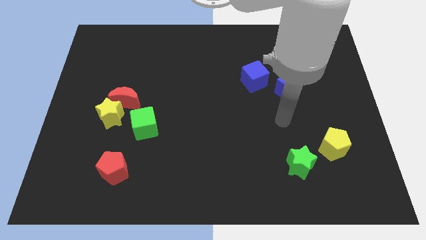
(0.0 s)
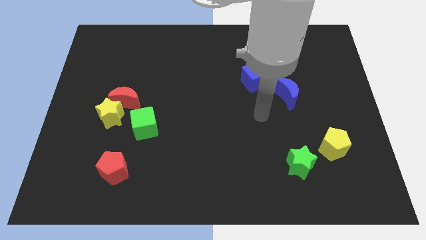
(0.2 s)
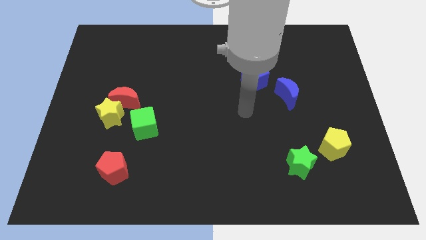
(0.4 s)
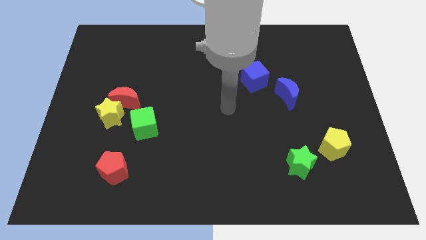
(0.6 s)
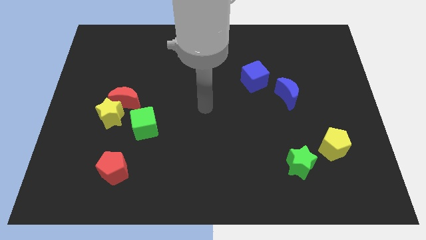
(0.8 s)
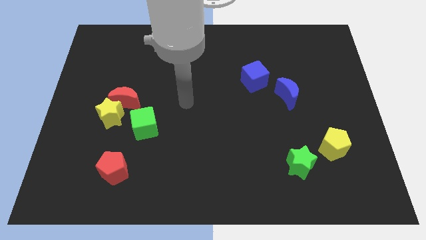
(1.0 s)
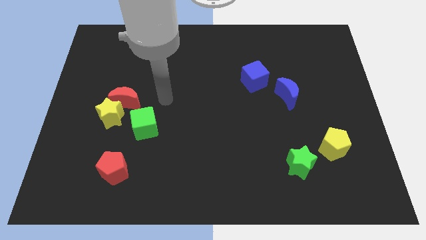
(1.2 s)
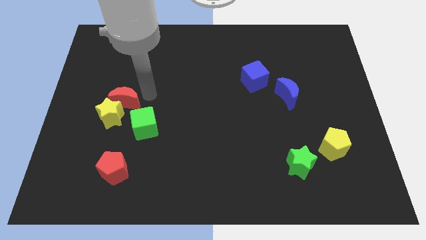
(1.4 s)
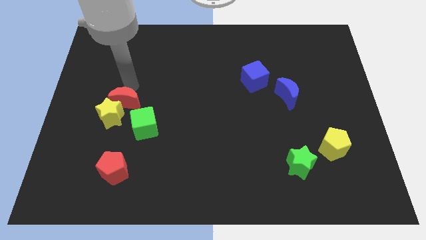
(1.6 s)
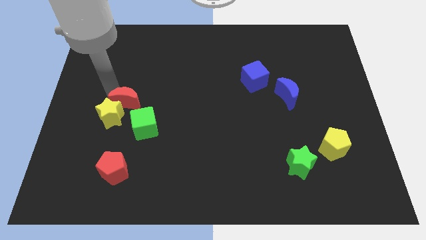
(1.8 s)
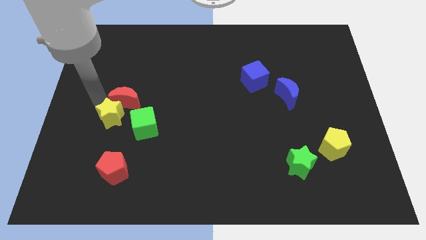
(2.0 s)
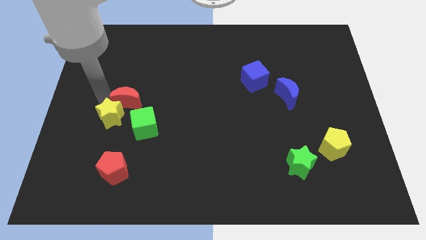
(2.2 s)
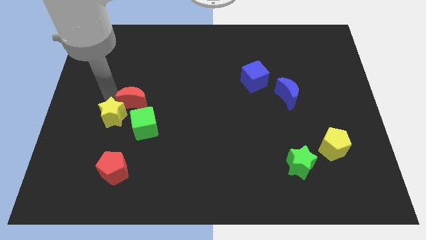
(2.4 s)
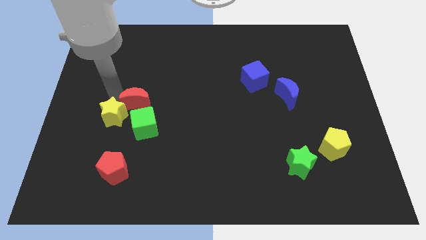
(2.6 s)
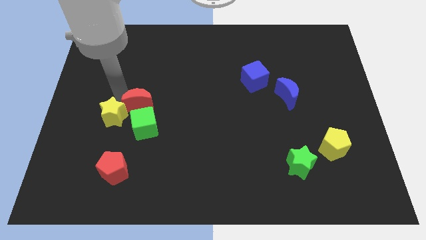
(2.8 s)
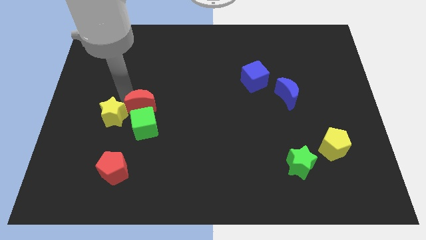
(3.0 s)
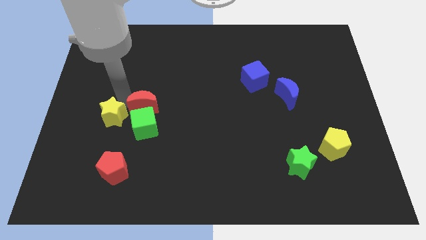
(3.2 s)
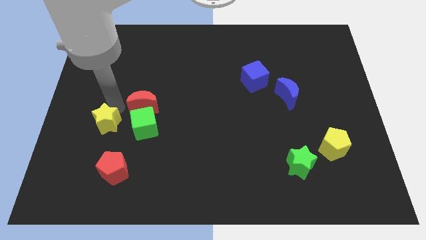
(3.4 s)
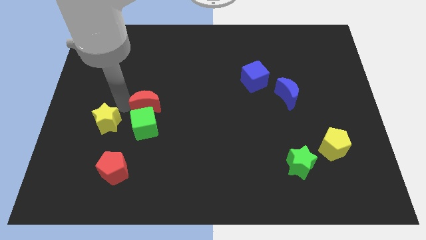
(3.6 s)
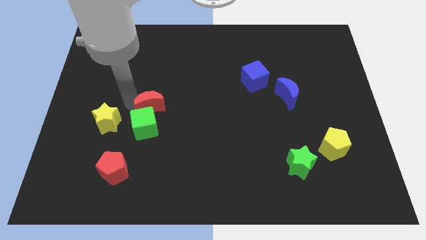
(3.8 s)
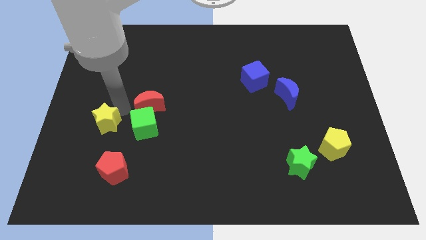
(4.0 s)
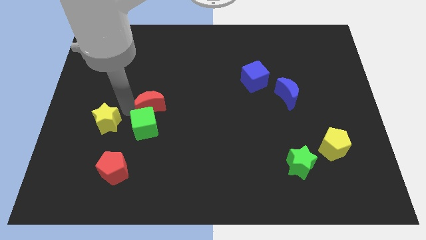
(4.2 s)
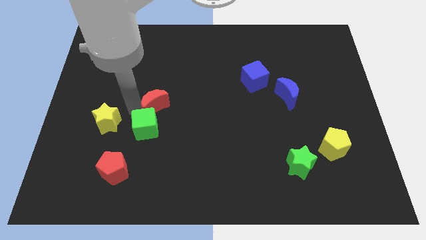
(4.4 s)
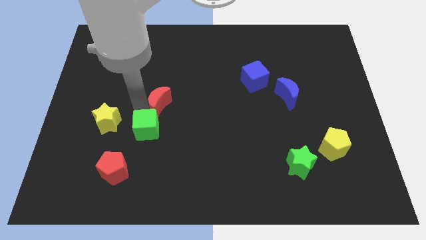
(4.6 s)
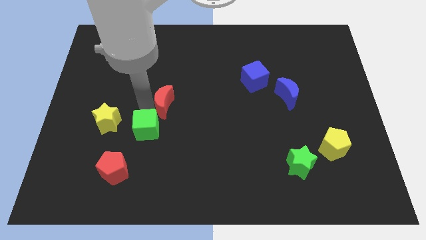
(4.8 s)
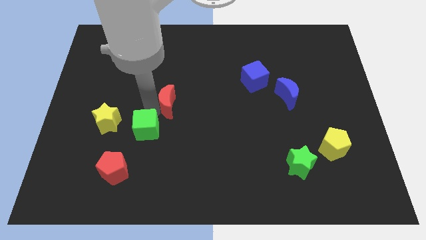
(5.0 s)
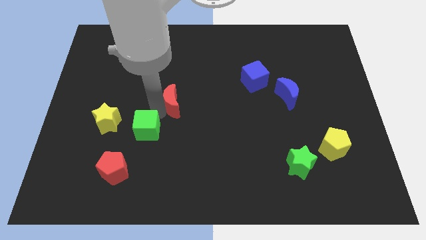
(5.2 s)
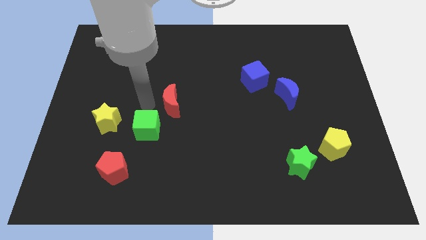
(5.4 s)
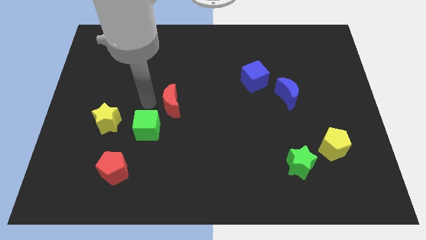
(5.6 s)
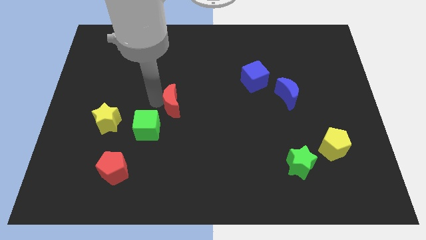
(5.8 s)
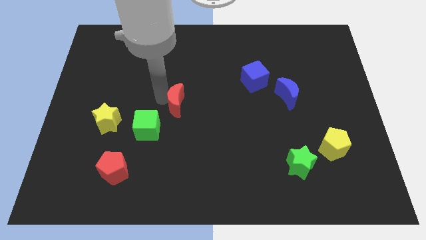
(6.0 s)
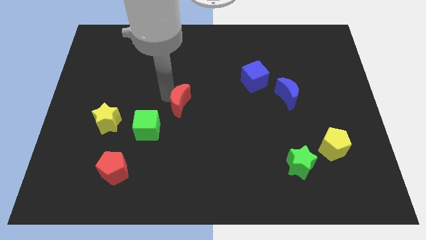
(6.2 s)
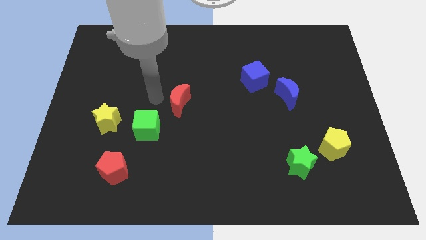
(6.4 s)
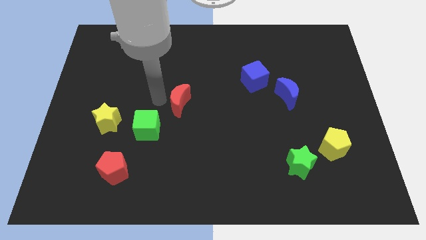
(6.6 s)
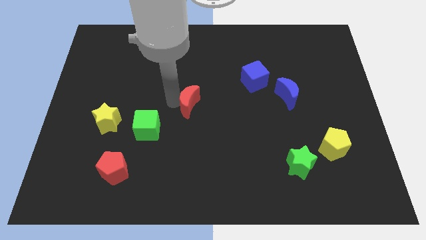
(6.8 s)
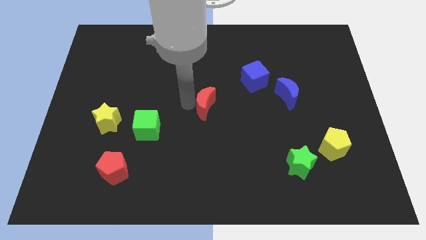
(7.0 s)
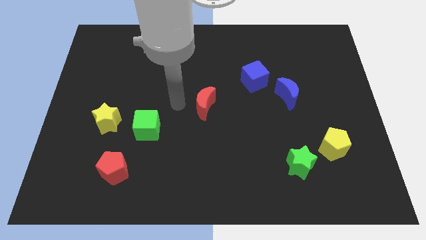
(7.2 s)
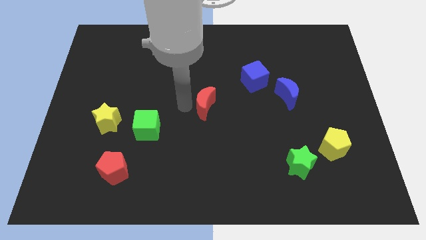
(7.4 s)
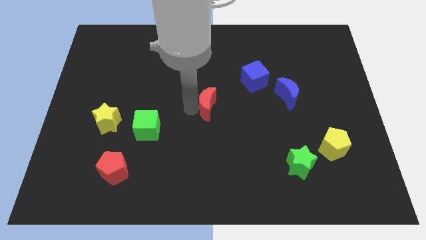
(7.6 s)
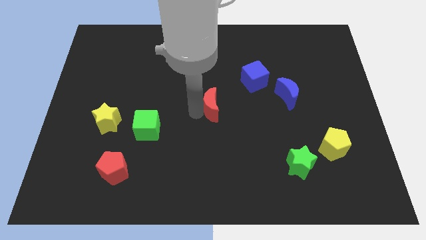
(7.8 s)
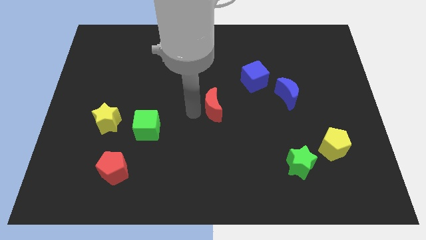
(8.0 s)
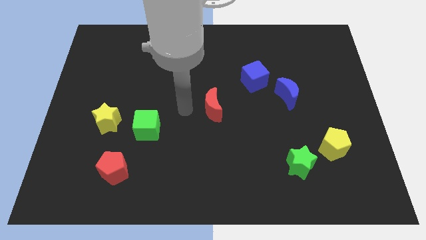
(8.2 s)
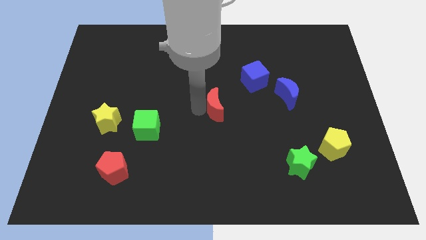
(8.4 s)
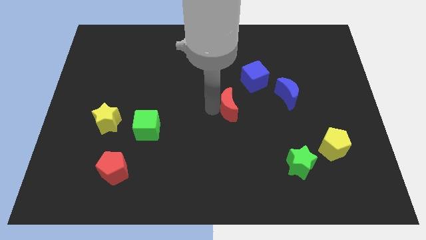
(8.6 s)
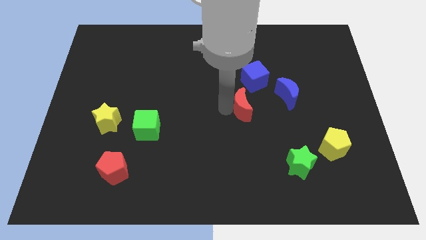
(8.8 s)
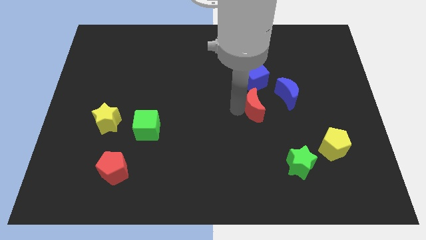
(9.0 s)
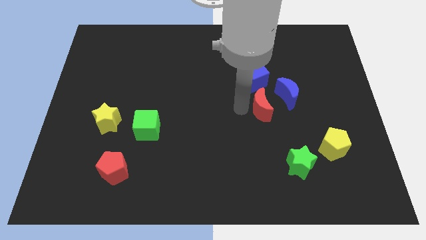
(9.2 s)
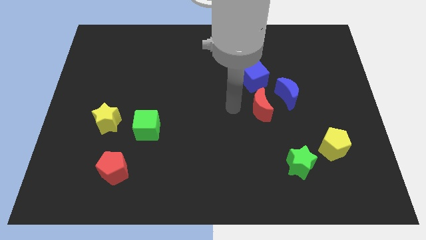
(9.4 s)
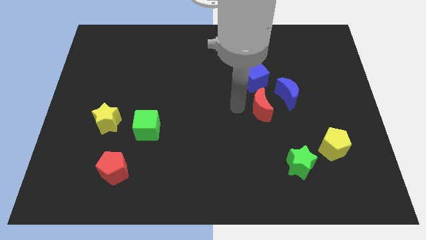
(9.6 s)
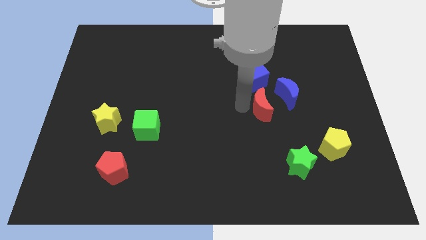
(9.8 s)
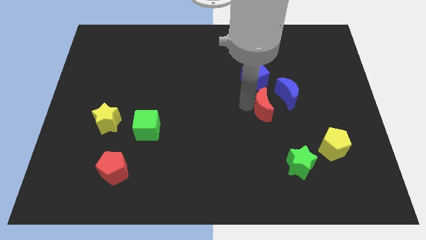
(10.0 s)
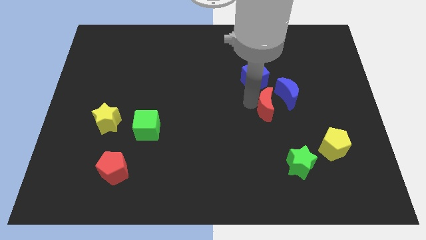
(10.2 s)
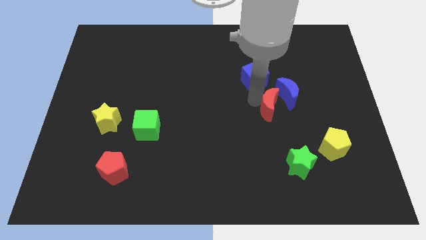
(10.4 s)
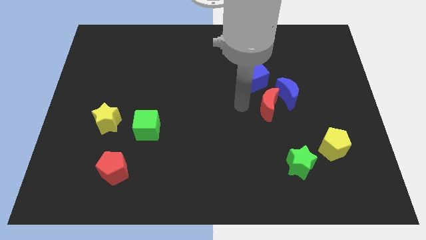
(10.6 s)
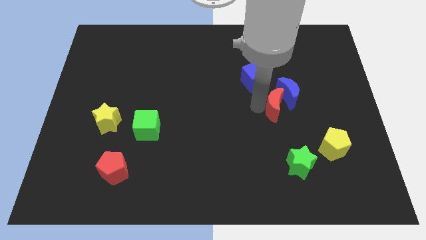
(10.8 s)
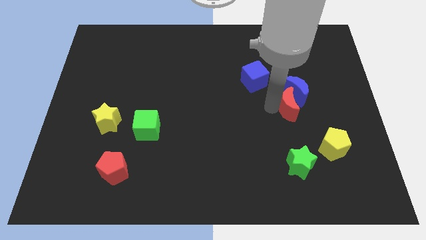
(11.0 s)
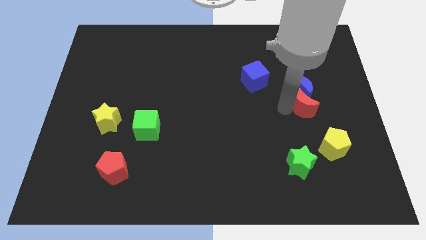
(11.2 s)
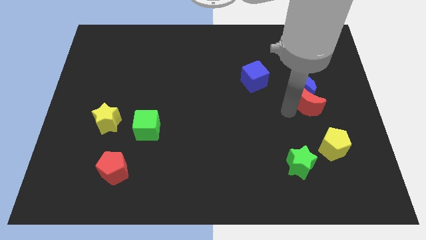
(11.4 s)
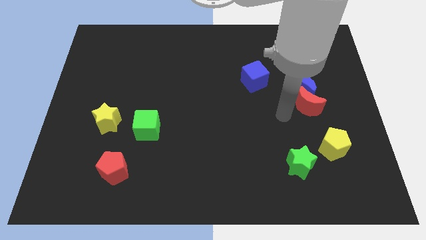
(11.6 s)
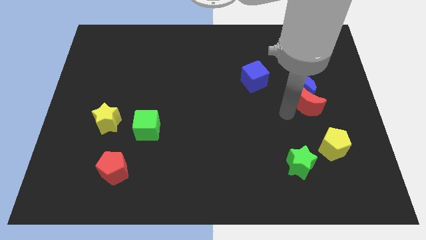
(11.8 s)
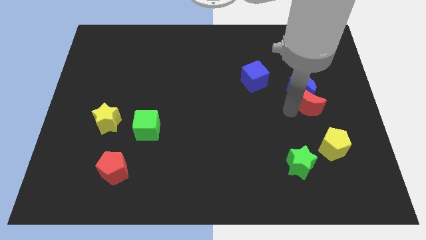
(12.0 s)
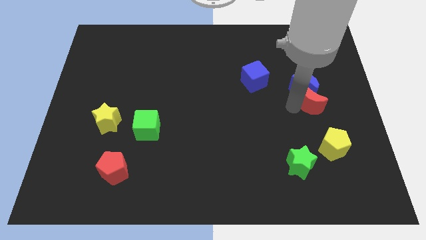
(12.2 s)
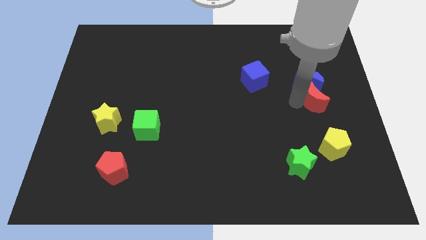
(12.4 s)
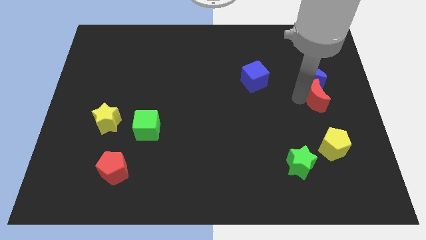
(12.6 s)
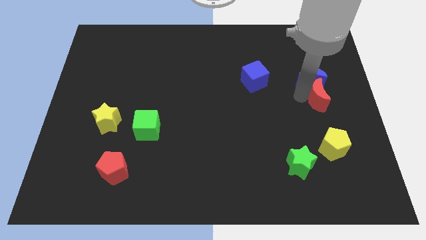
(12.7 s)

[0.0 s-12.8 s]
move the red moon to the right side
